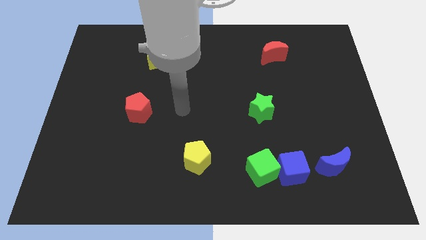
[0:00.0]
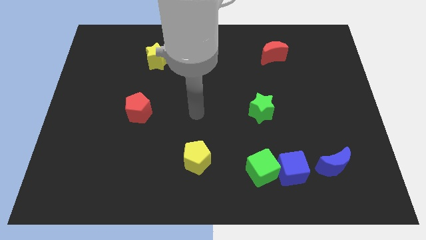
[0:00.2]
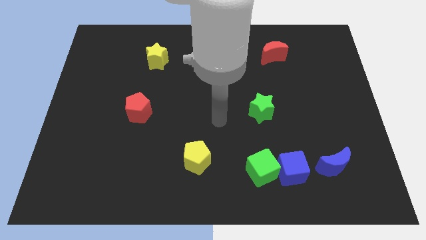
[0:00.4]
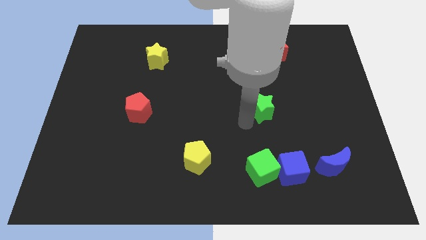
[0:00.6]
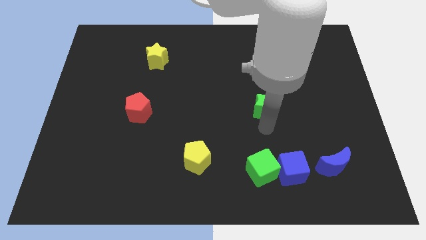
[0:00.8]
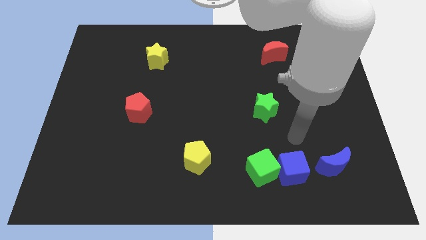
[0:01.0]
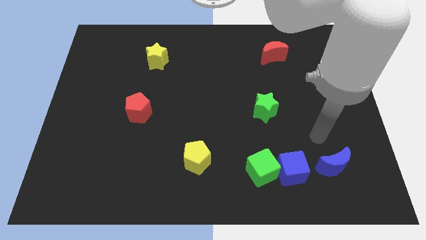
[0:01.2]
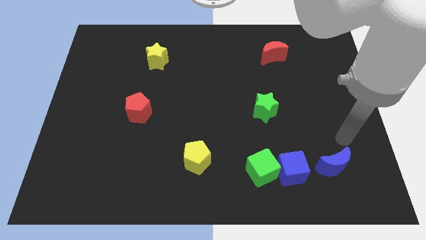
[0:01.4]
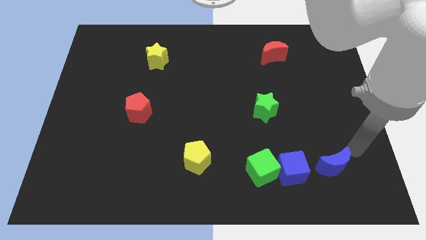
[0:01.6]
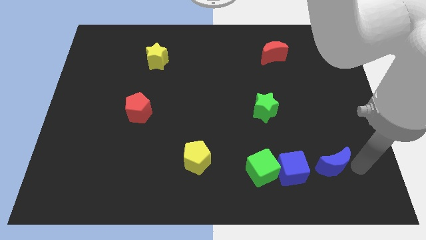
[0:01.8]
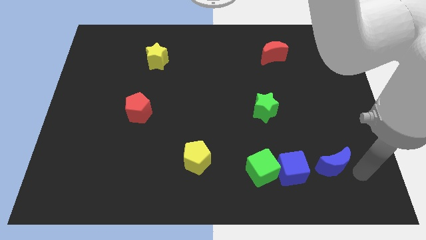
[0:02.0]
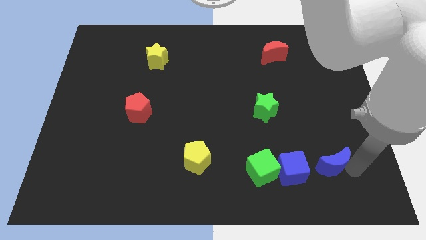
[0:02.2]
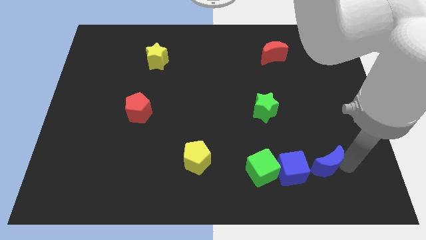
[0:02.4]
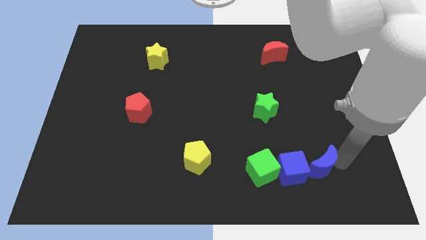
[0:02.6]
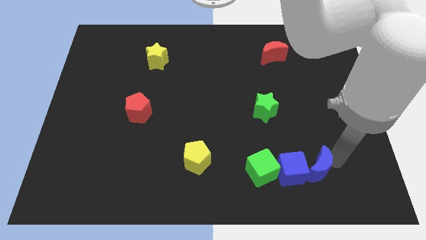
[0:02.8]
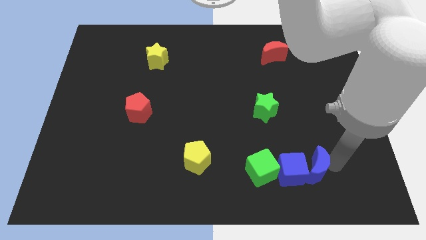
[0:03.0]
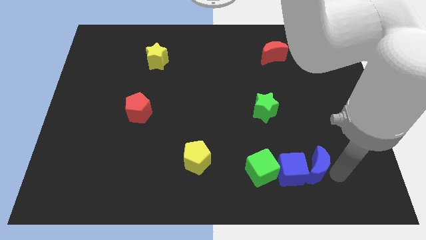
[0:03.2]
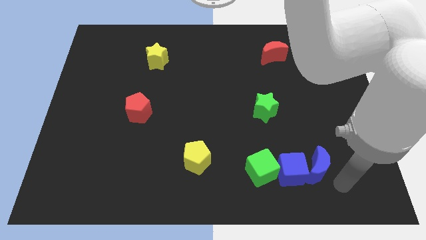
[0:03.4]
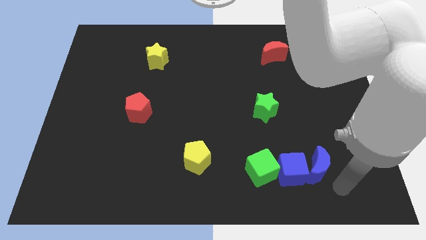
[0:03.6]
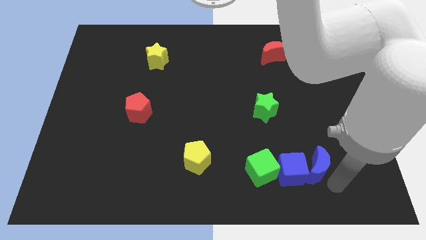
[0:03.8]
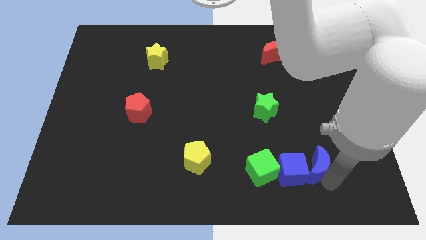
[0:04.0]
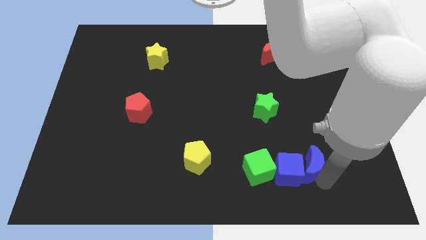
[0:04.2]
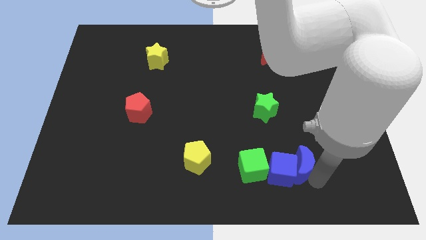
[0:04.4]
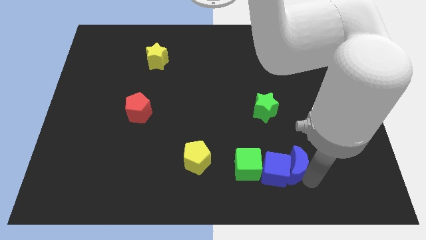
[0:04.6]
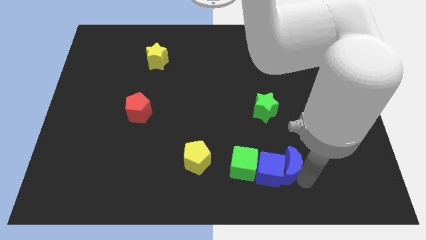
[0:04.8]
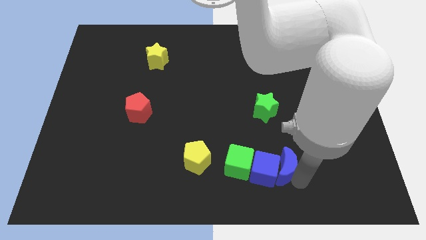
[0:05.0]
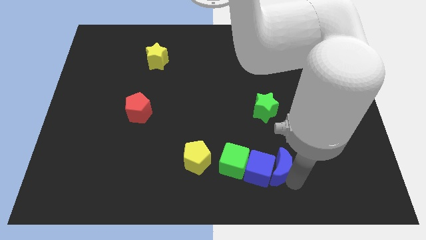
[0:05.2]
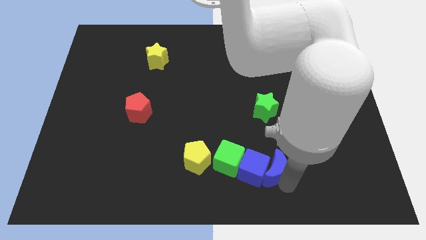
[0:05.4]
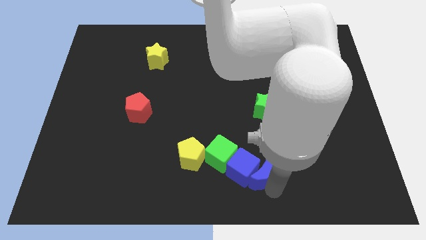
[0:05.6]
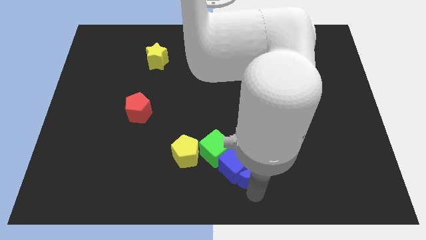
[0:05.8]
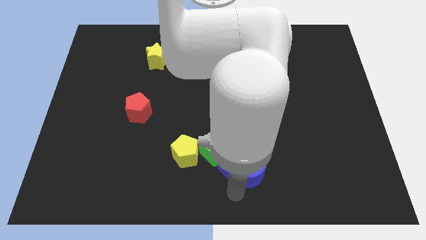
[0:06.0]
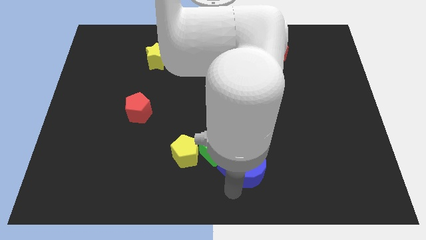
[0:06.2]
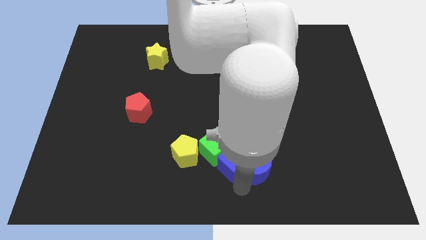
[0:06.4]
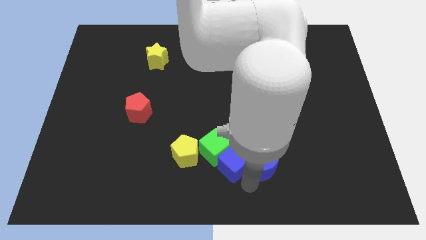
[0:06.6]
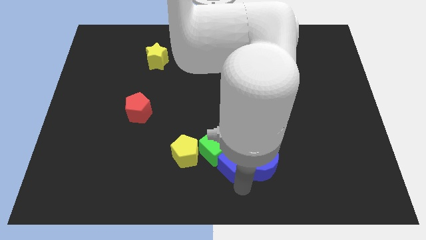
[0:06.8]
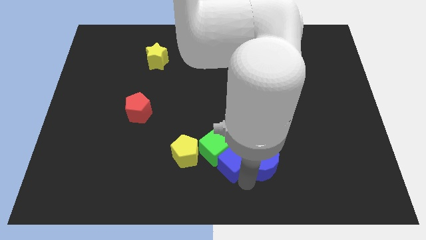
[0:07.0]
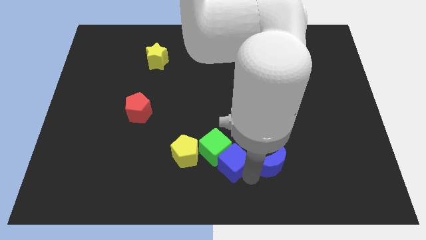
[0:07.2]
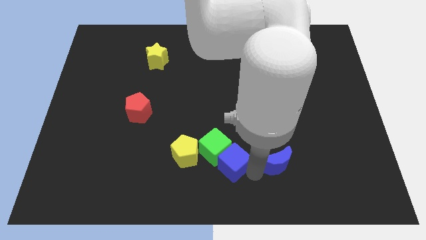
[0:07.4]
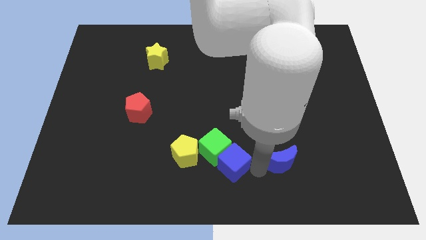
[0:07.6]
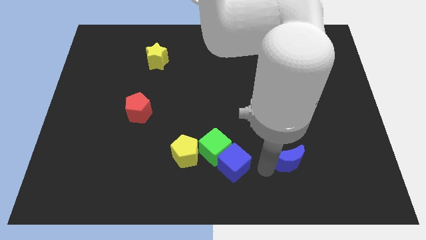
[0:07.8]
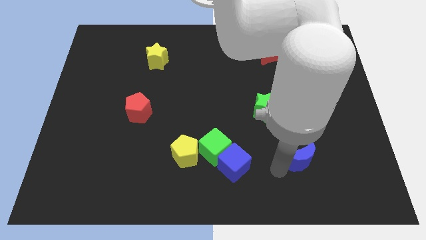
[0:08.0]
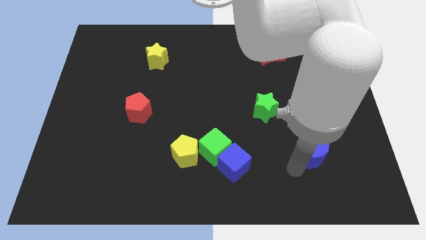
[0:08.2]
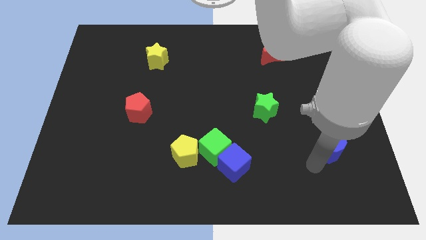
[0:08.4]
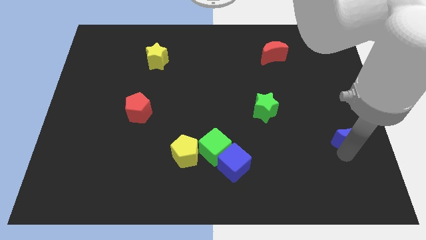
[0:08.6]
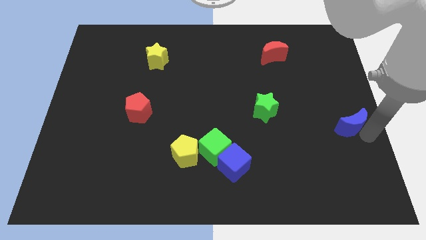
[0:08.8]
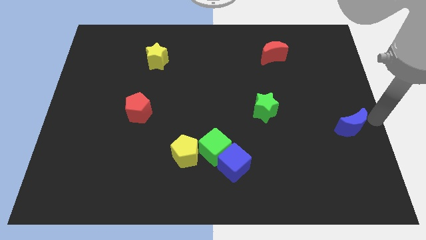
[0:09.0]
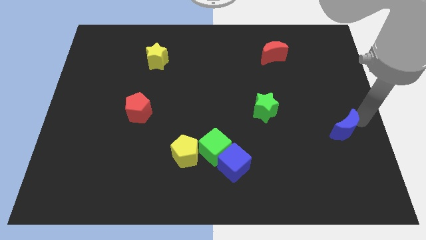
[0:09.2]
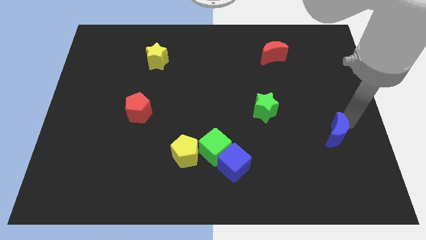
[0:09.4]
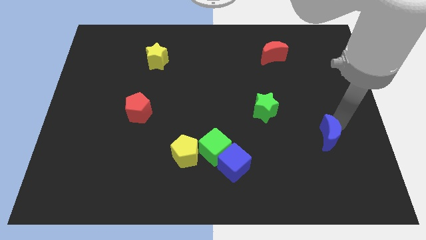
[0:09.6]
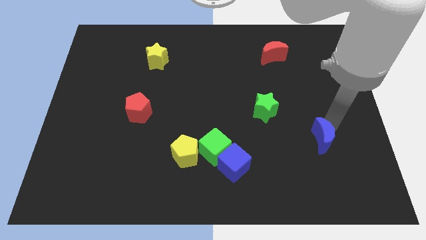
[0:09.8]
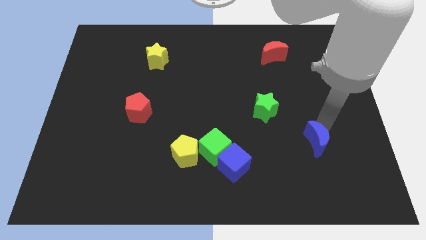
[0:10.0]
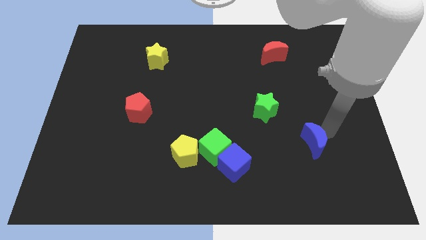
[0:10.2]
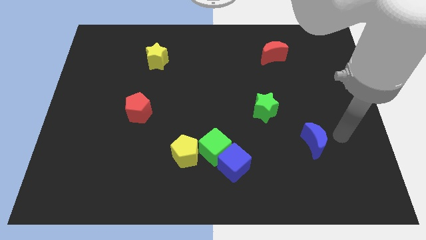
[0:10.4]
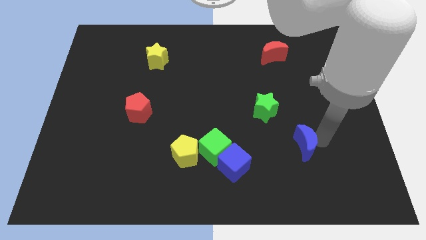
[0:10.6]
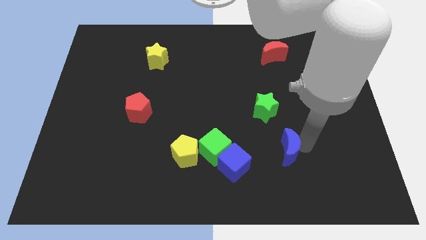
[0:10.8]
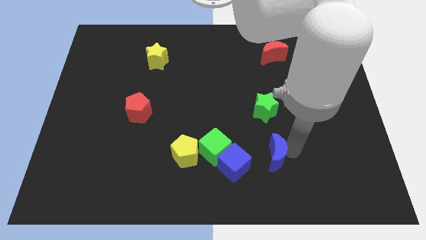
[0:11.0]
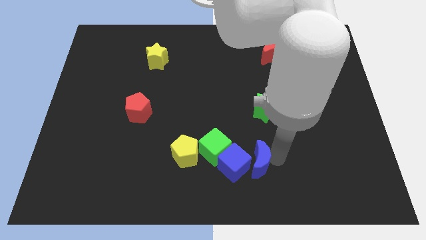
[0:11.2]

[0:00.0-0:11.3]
move the blue moon right of the yellow pentagon

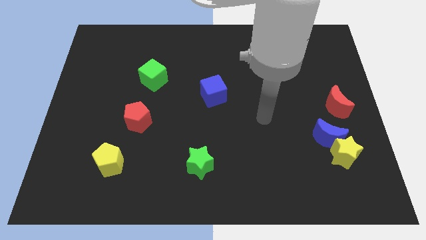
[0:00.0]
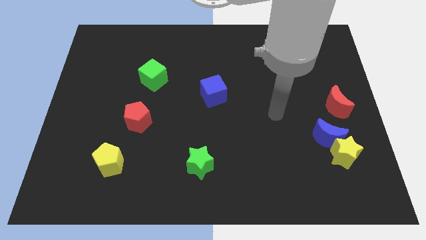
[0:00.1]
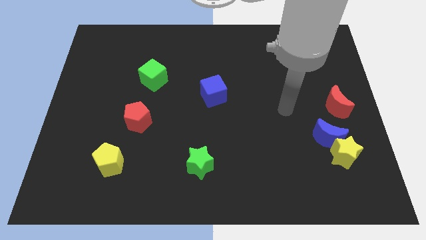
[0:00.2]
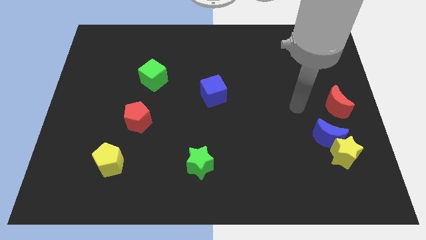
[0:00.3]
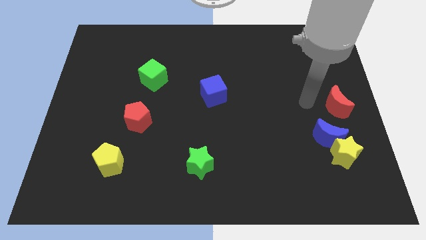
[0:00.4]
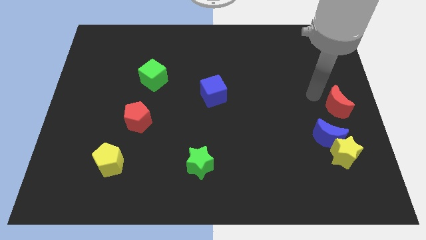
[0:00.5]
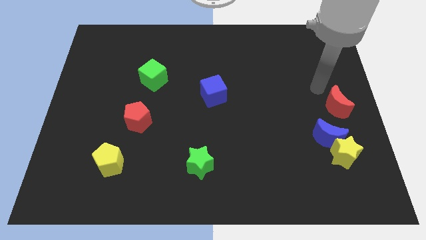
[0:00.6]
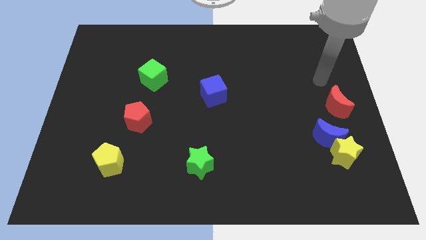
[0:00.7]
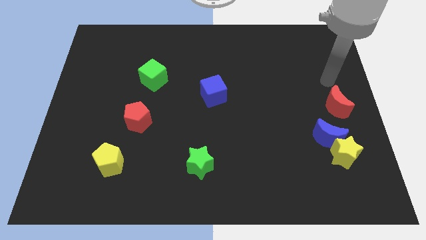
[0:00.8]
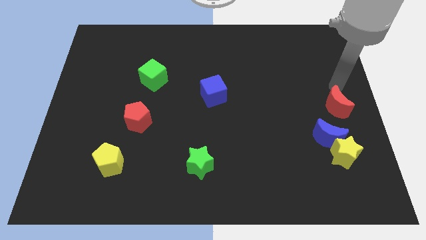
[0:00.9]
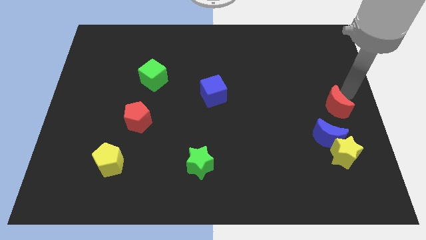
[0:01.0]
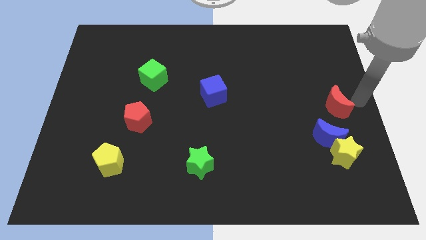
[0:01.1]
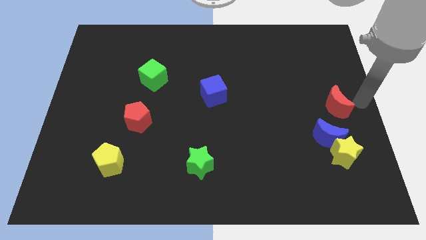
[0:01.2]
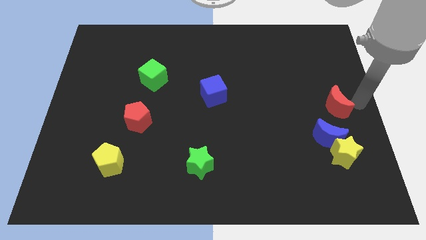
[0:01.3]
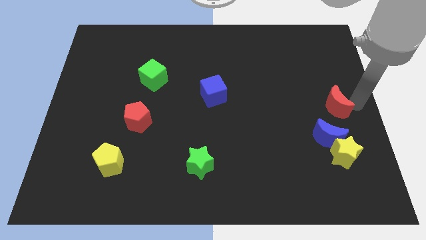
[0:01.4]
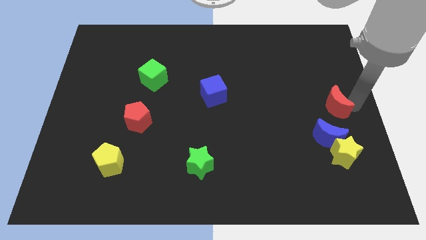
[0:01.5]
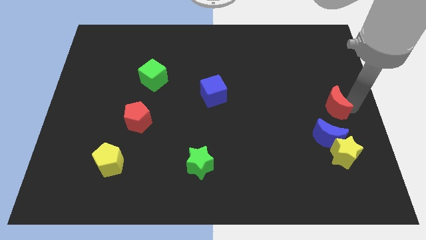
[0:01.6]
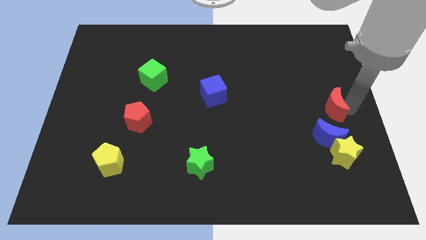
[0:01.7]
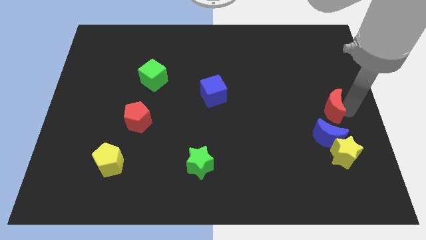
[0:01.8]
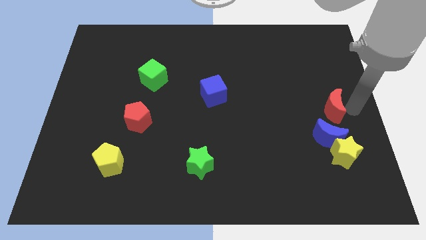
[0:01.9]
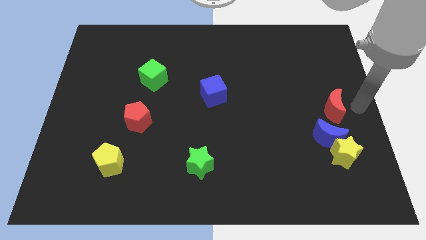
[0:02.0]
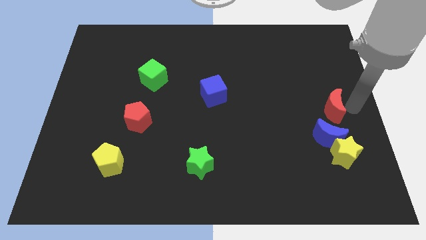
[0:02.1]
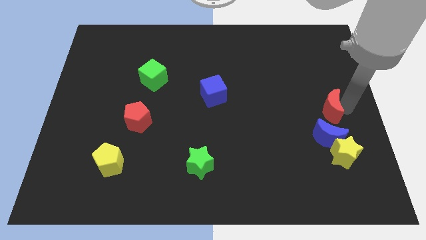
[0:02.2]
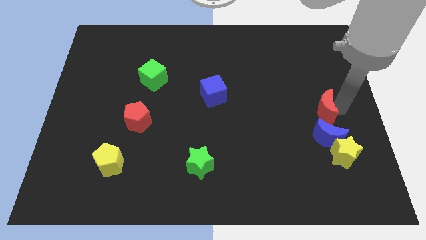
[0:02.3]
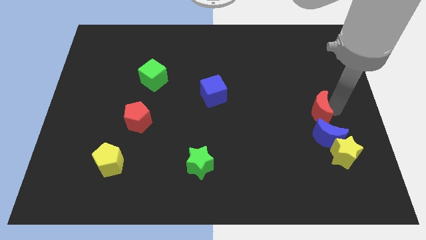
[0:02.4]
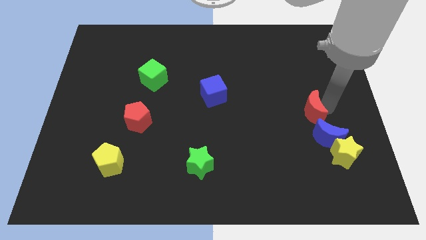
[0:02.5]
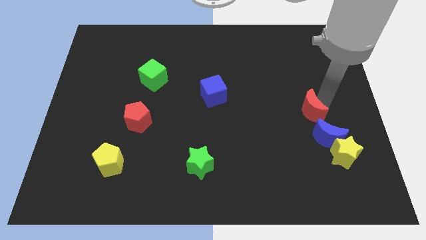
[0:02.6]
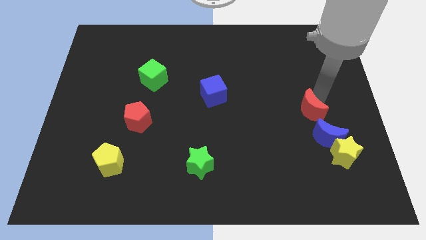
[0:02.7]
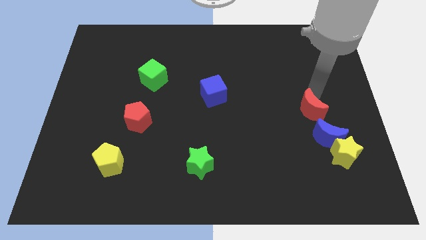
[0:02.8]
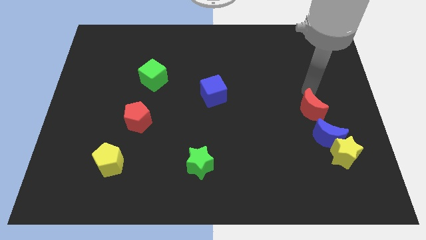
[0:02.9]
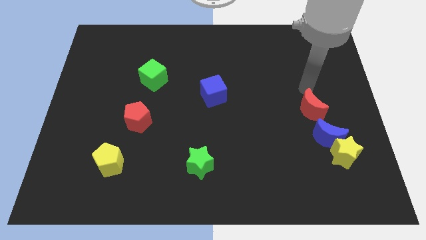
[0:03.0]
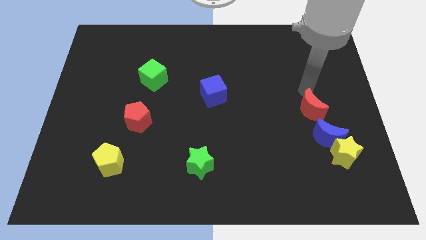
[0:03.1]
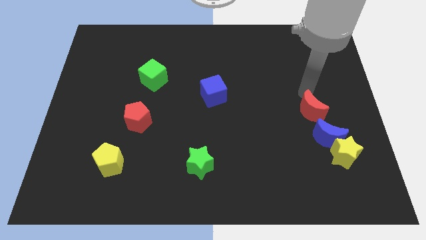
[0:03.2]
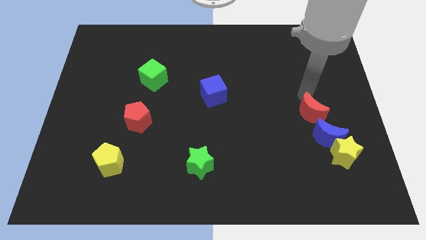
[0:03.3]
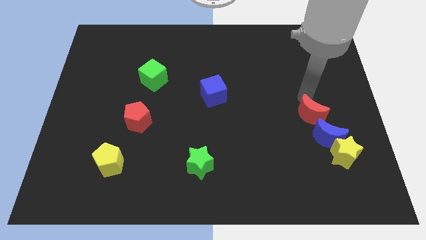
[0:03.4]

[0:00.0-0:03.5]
slide the red moon diagonally up and to the left of the yellow star
